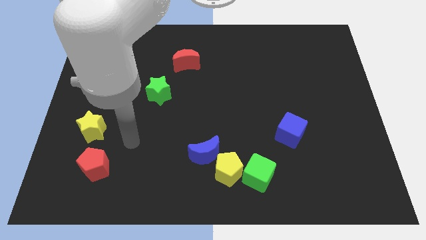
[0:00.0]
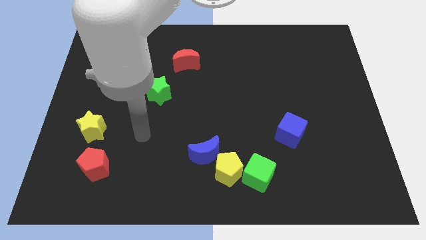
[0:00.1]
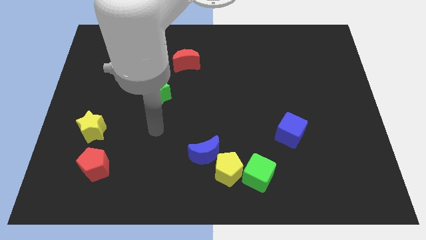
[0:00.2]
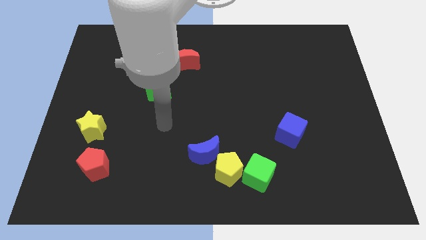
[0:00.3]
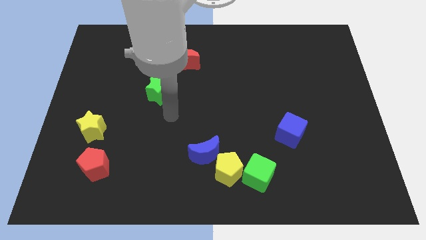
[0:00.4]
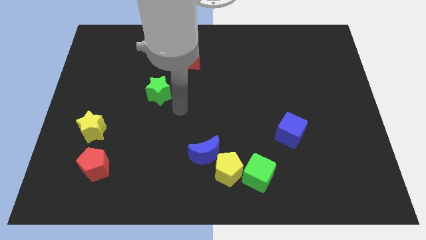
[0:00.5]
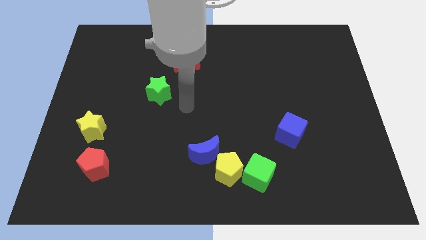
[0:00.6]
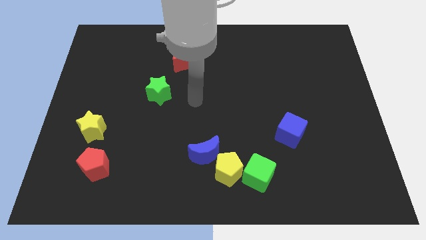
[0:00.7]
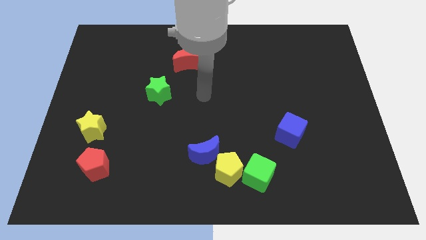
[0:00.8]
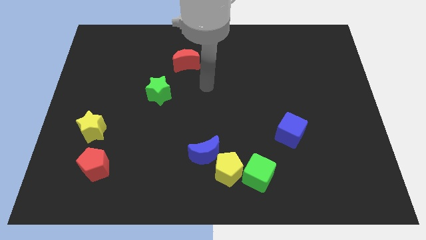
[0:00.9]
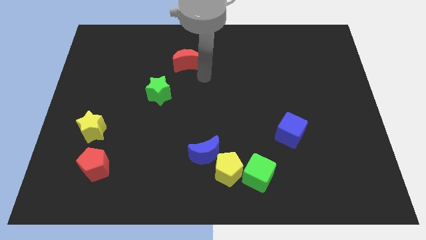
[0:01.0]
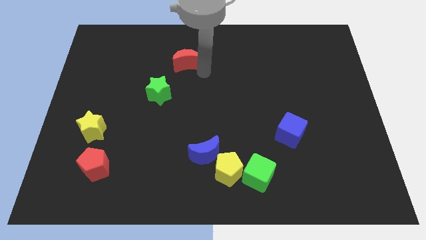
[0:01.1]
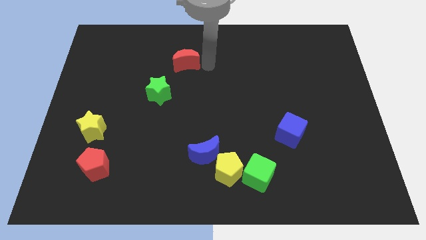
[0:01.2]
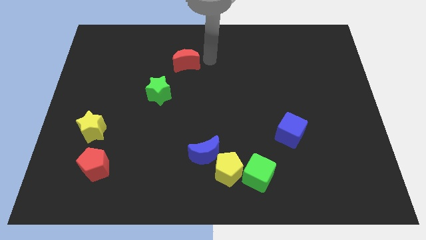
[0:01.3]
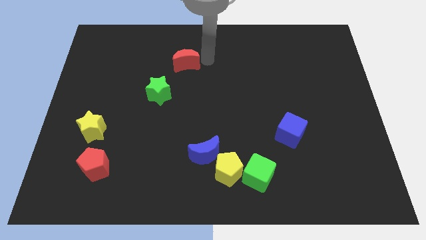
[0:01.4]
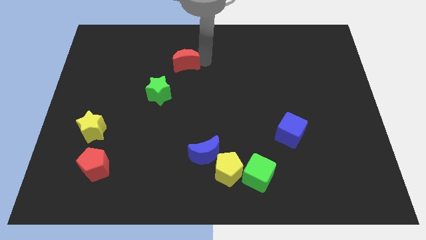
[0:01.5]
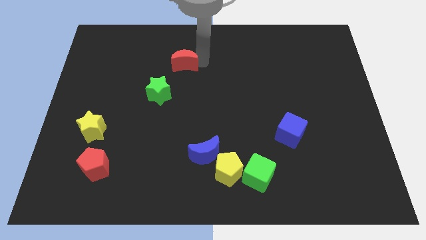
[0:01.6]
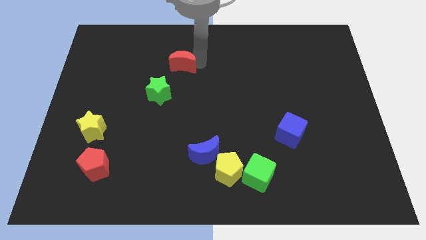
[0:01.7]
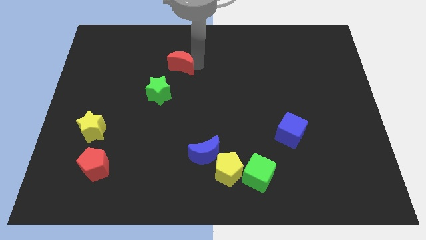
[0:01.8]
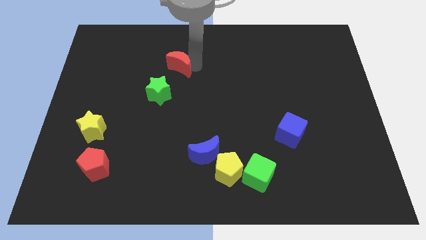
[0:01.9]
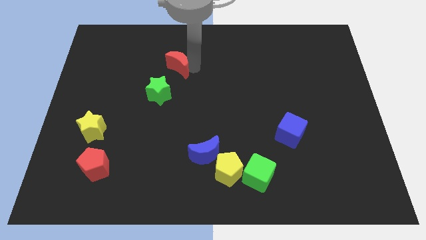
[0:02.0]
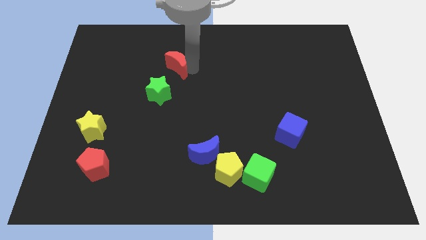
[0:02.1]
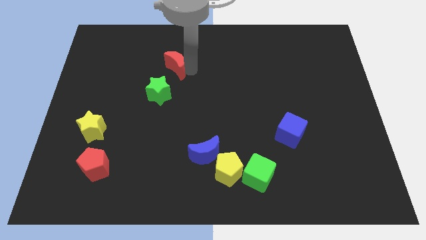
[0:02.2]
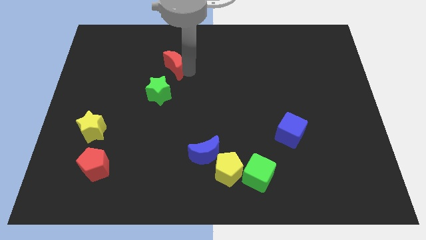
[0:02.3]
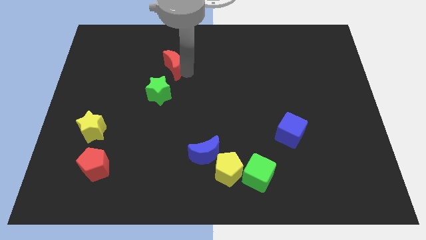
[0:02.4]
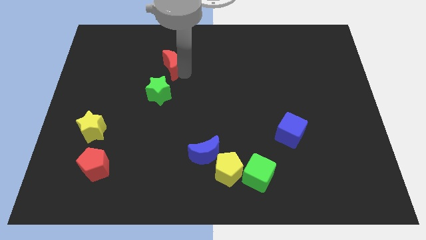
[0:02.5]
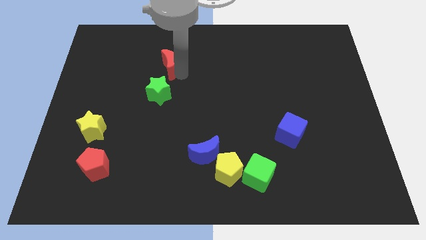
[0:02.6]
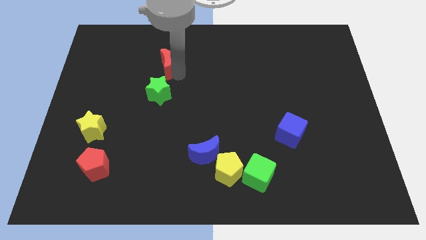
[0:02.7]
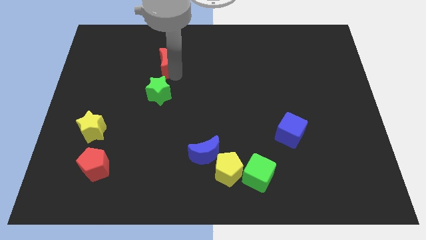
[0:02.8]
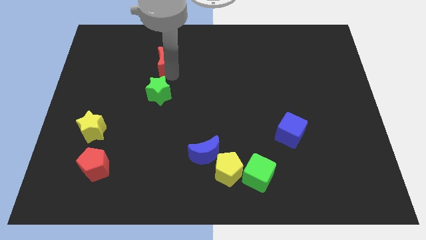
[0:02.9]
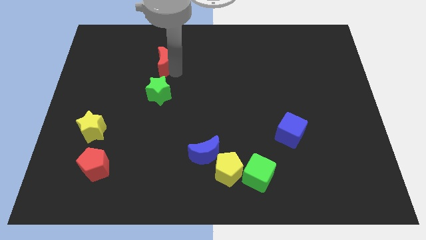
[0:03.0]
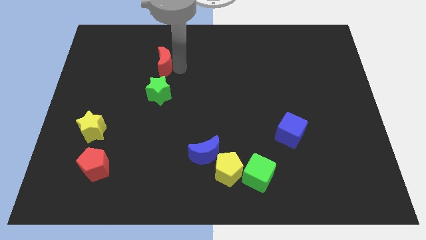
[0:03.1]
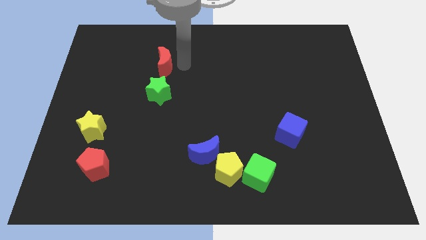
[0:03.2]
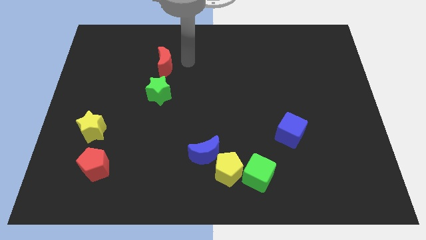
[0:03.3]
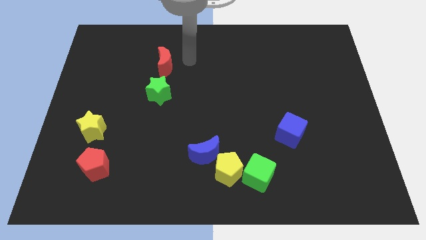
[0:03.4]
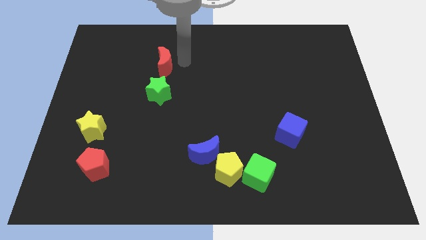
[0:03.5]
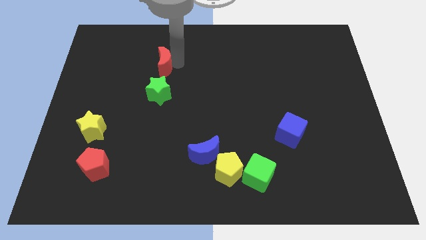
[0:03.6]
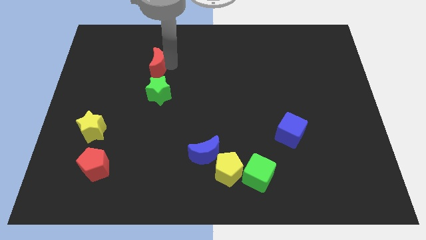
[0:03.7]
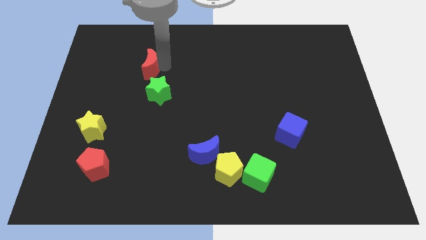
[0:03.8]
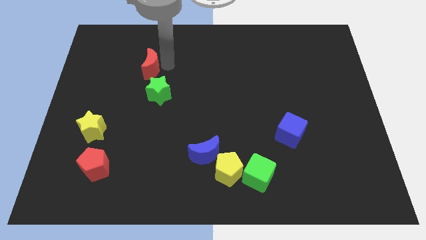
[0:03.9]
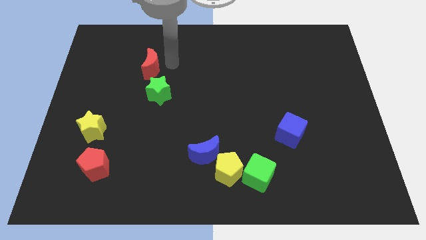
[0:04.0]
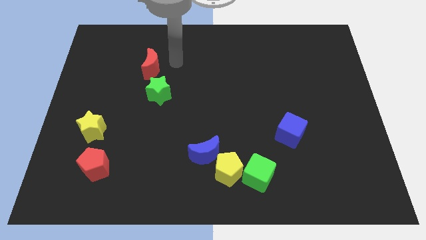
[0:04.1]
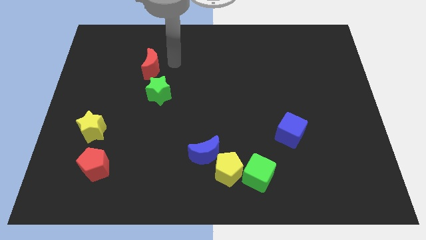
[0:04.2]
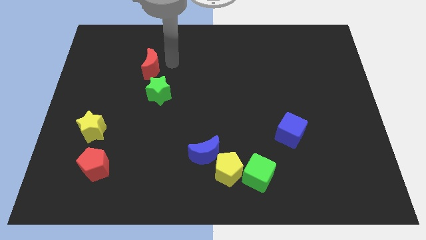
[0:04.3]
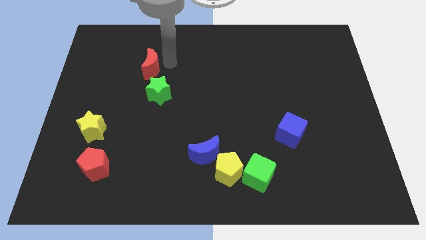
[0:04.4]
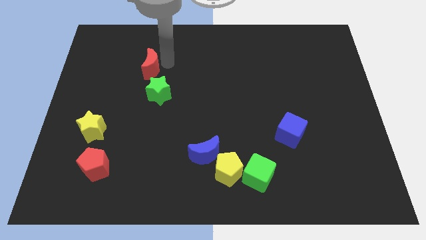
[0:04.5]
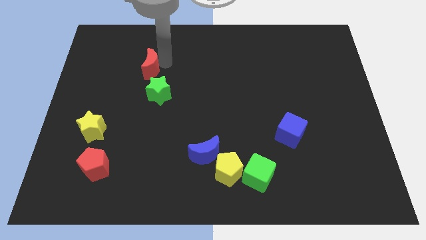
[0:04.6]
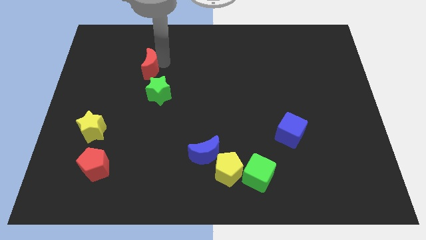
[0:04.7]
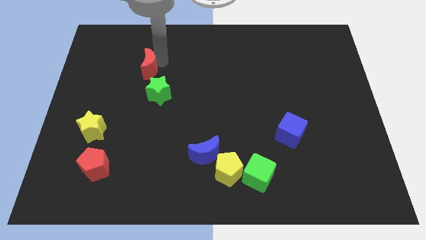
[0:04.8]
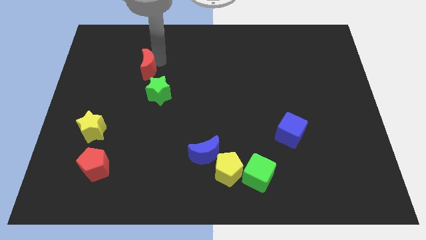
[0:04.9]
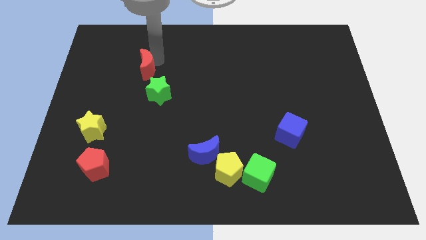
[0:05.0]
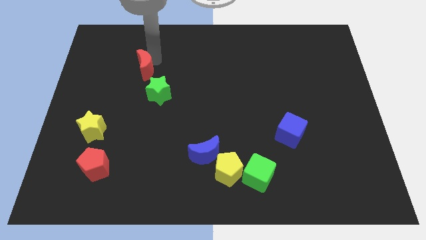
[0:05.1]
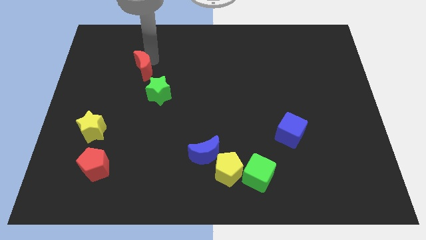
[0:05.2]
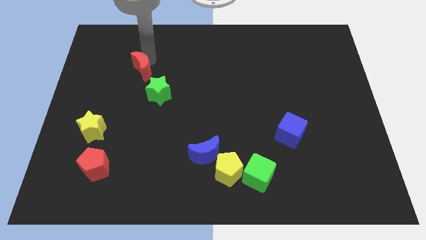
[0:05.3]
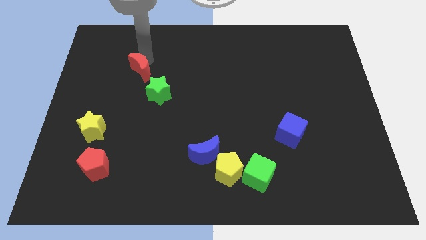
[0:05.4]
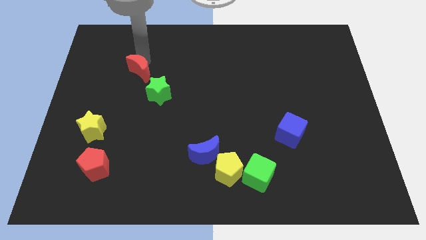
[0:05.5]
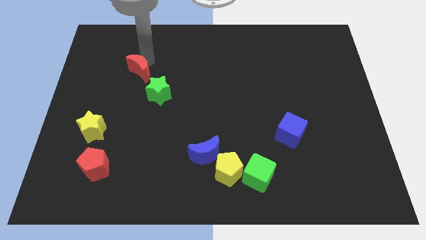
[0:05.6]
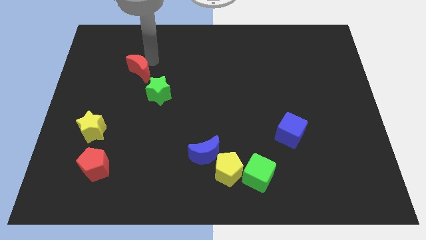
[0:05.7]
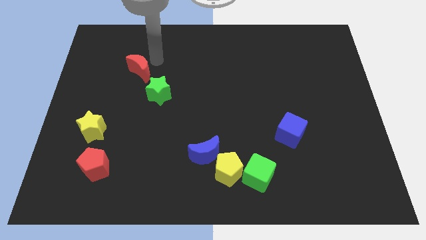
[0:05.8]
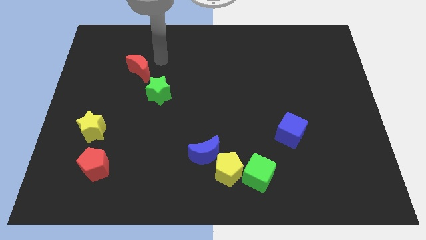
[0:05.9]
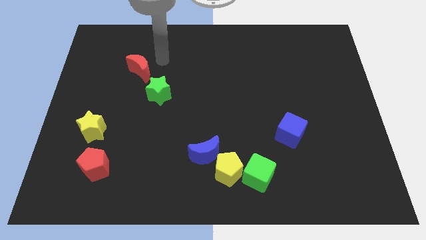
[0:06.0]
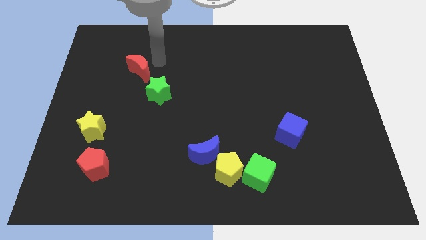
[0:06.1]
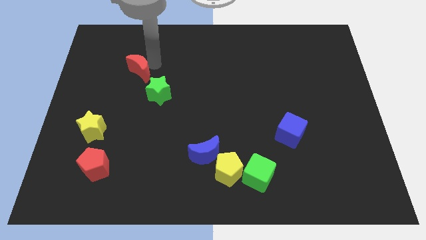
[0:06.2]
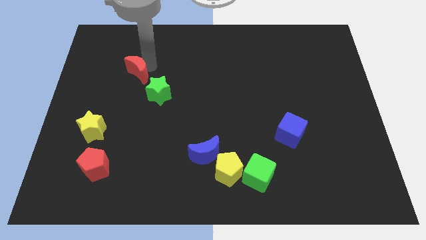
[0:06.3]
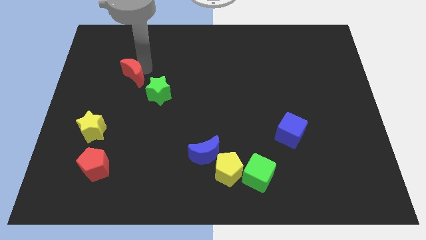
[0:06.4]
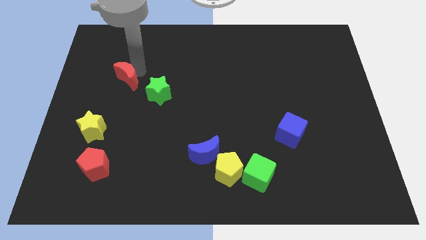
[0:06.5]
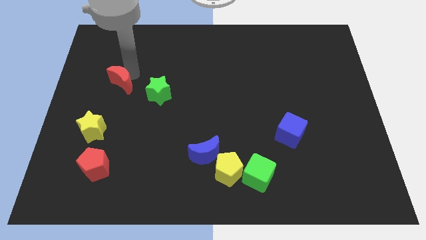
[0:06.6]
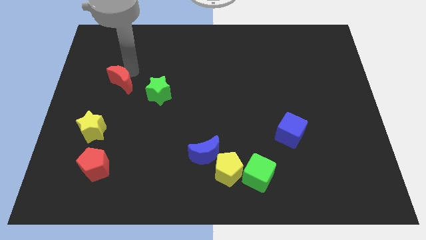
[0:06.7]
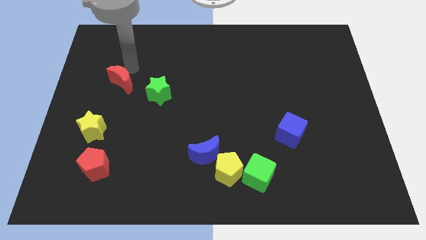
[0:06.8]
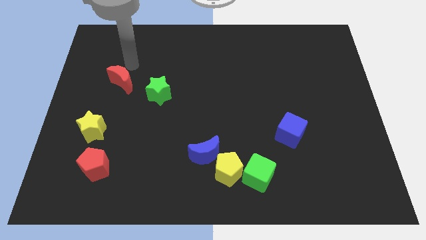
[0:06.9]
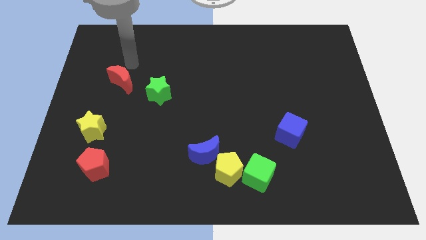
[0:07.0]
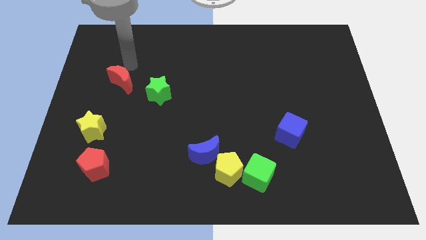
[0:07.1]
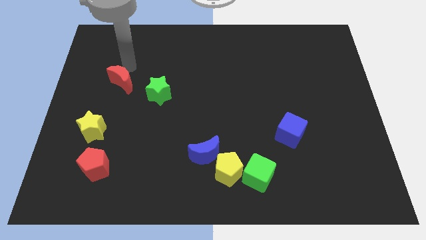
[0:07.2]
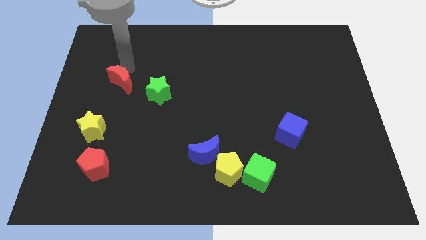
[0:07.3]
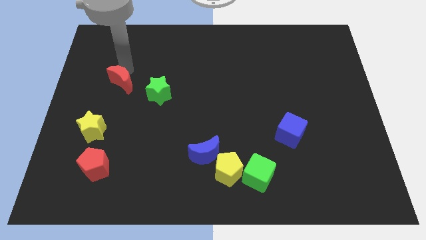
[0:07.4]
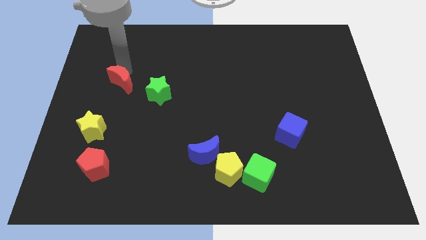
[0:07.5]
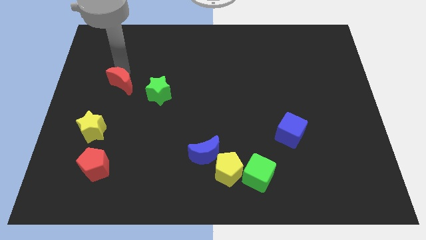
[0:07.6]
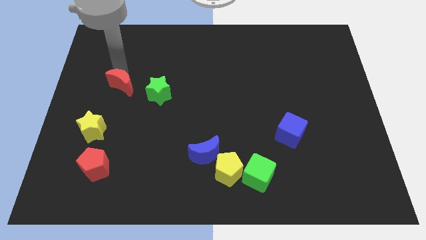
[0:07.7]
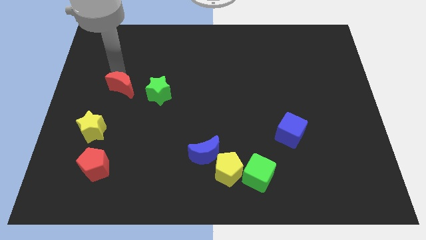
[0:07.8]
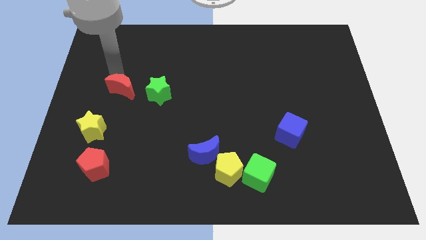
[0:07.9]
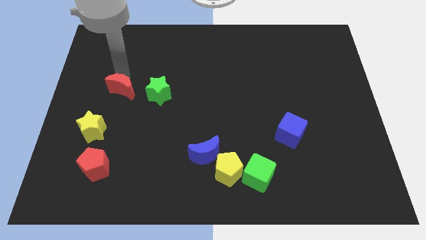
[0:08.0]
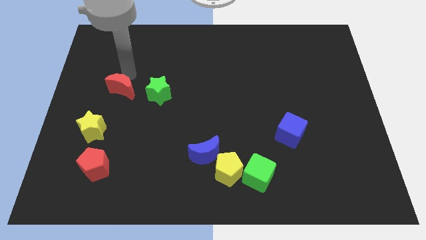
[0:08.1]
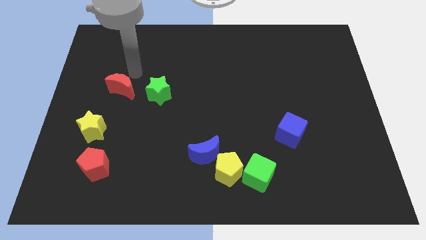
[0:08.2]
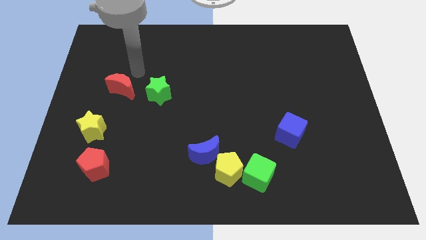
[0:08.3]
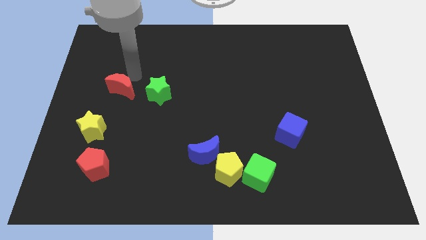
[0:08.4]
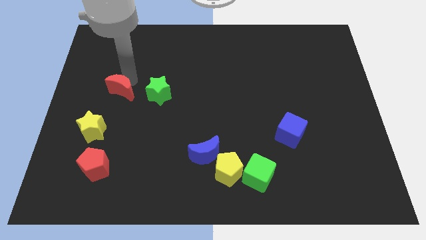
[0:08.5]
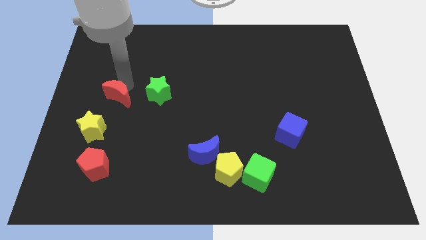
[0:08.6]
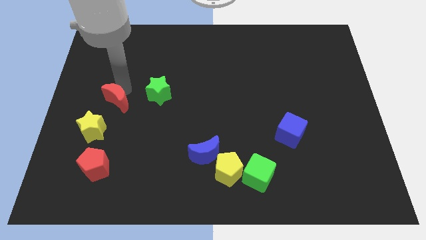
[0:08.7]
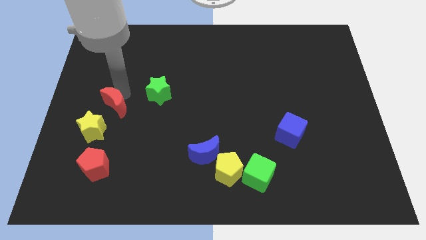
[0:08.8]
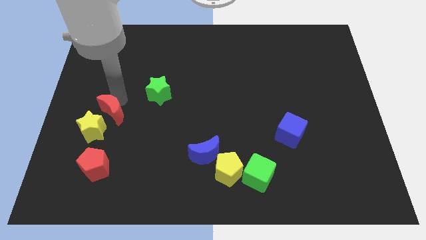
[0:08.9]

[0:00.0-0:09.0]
put the red moon towards the yellow star
